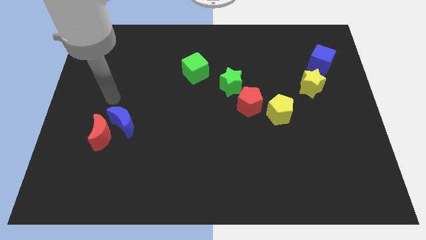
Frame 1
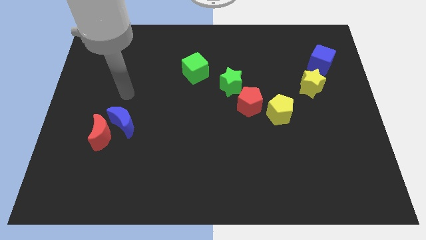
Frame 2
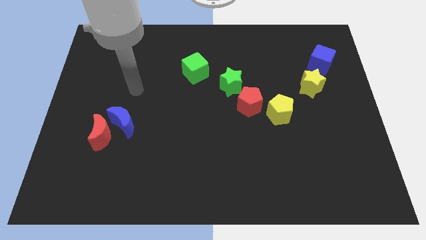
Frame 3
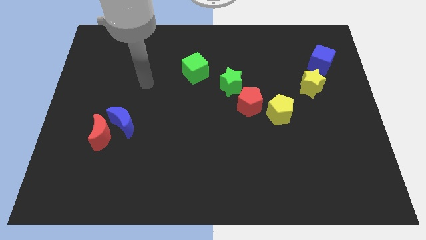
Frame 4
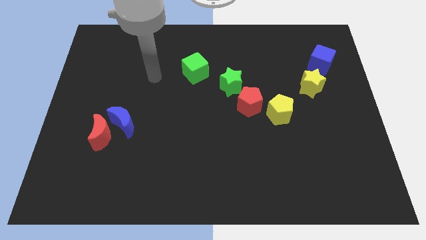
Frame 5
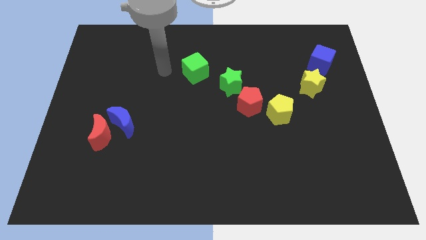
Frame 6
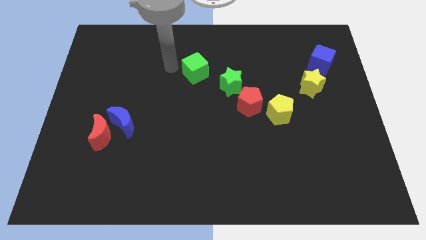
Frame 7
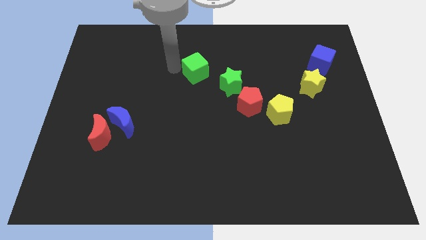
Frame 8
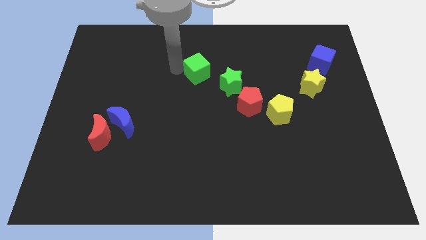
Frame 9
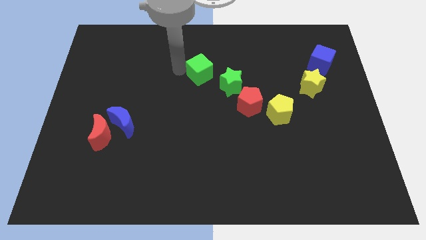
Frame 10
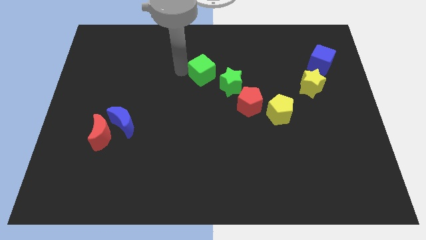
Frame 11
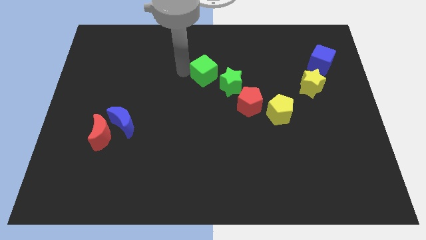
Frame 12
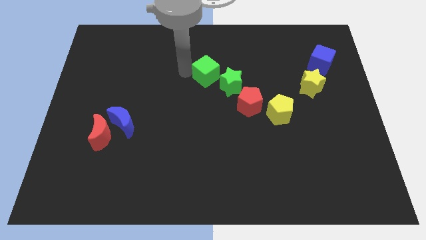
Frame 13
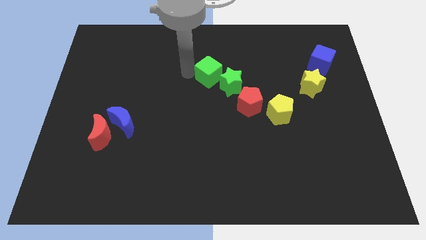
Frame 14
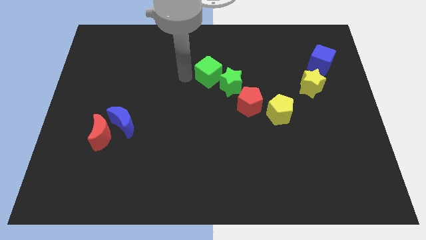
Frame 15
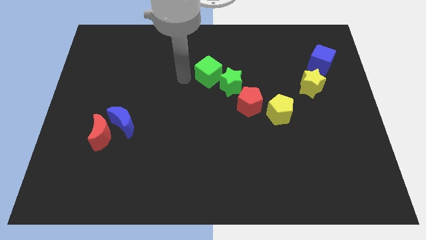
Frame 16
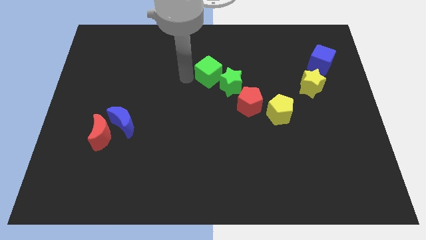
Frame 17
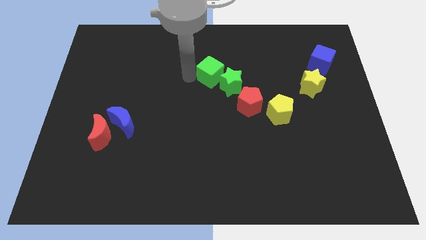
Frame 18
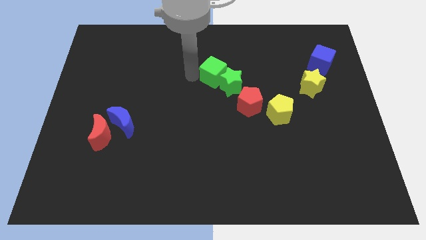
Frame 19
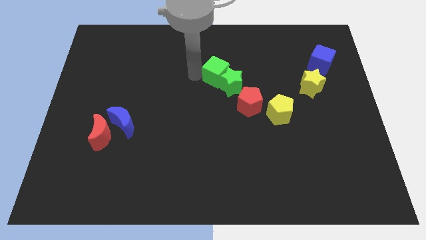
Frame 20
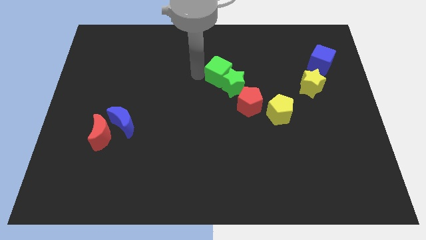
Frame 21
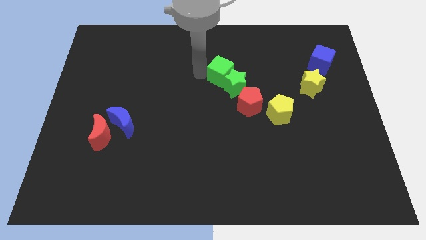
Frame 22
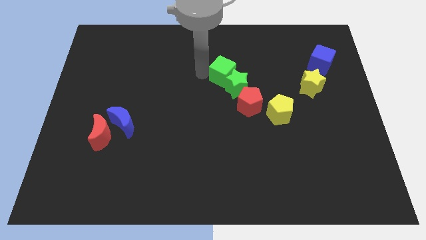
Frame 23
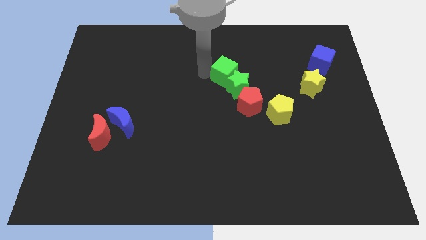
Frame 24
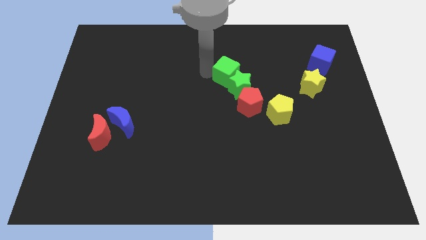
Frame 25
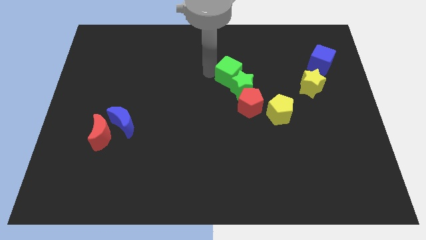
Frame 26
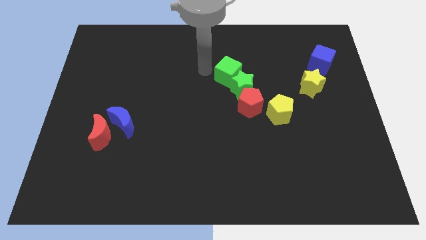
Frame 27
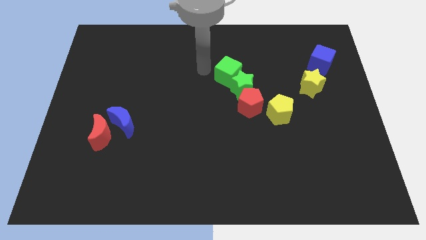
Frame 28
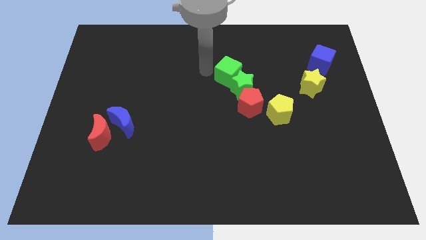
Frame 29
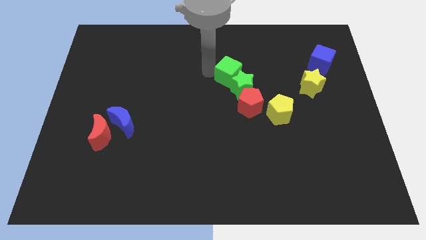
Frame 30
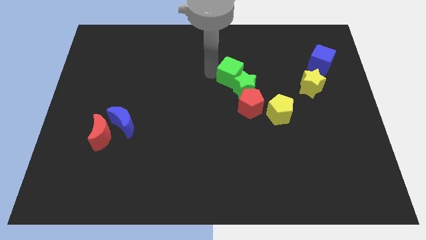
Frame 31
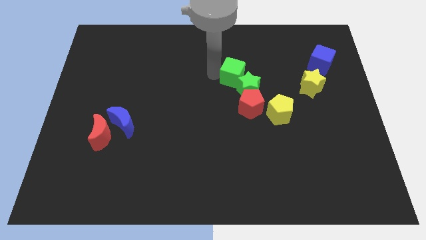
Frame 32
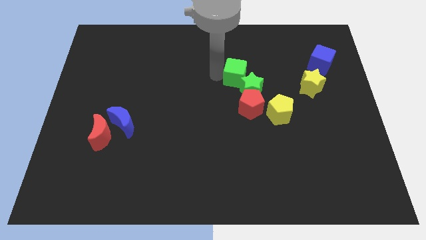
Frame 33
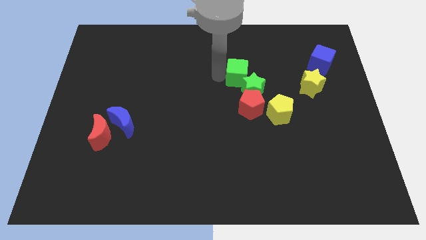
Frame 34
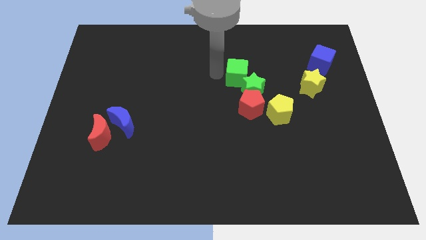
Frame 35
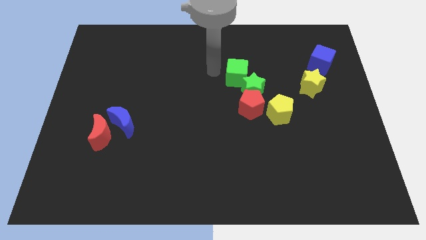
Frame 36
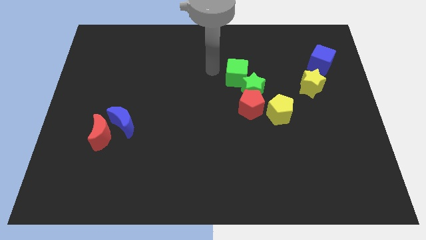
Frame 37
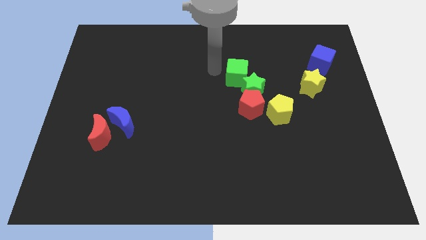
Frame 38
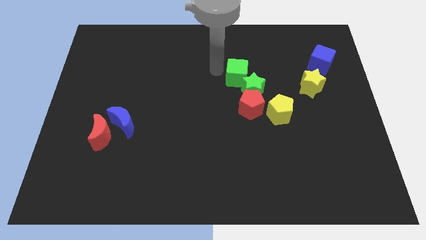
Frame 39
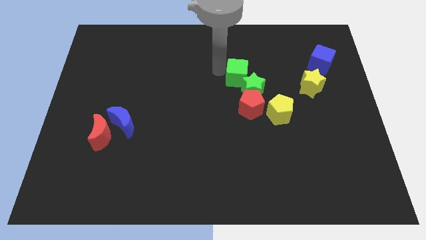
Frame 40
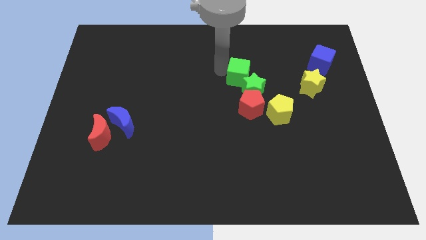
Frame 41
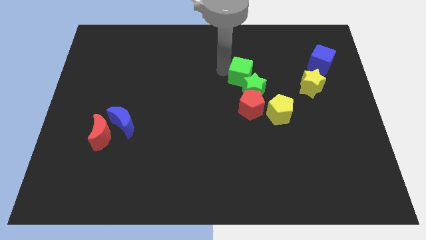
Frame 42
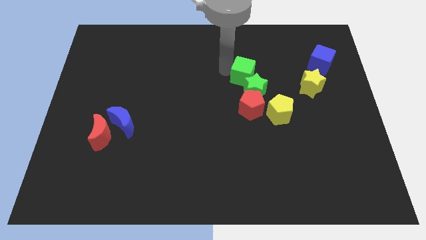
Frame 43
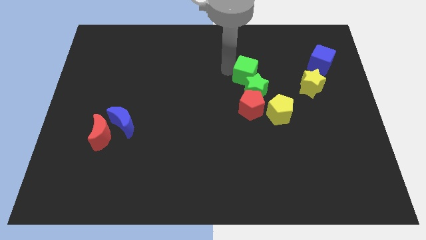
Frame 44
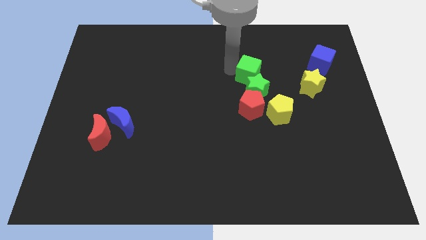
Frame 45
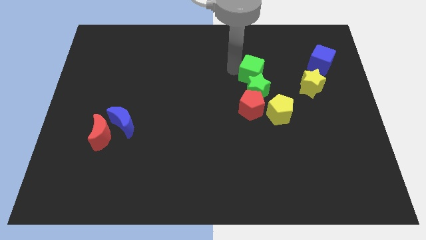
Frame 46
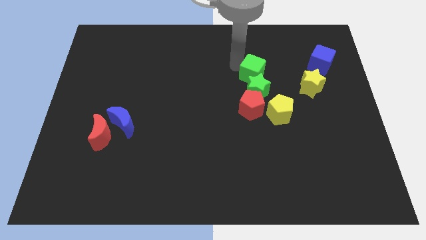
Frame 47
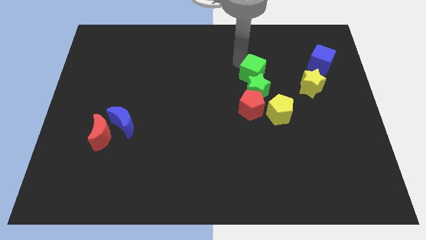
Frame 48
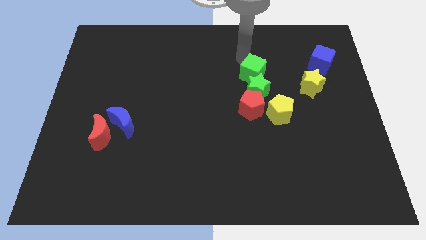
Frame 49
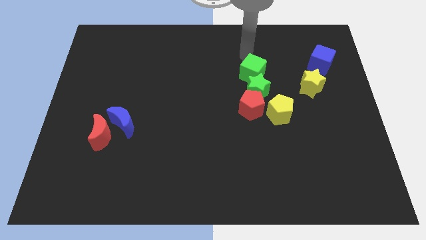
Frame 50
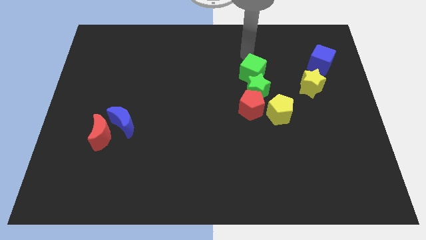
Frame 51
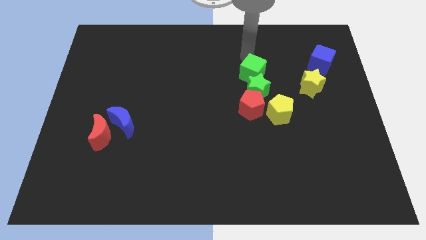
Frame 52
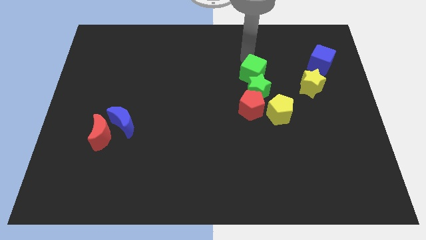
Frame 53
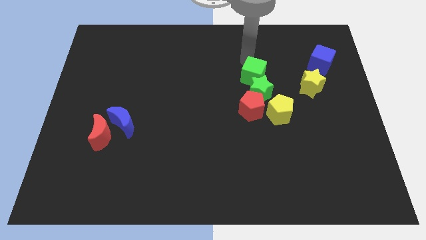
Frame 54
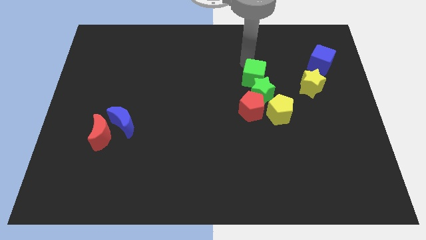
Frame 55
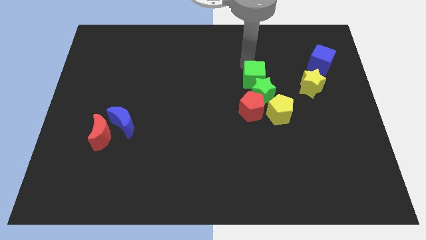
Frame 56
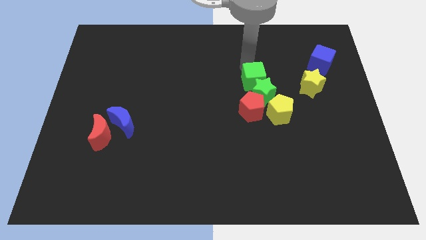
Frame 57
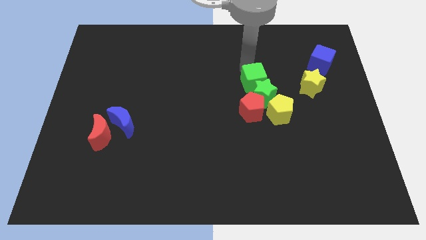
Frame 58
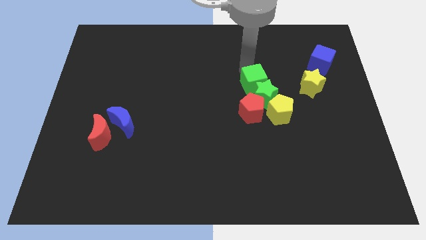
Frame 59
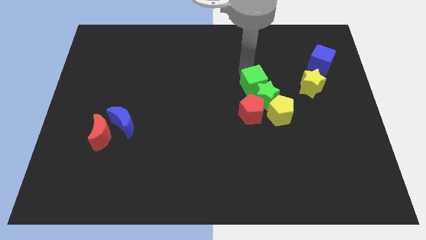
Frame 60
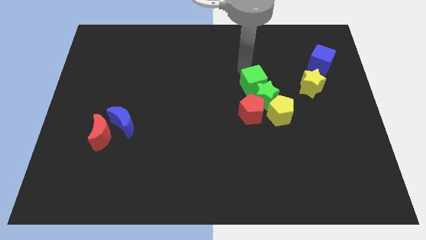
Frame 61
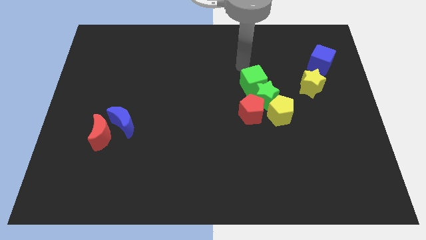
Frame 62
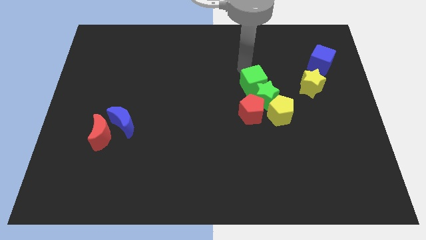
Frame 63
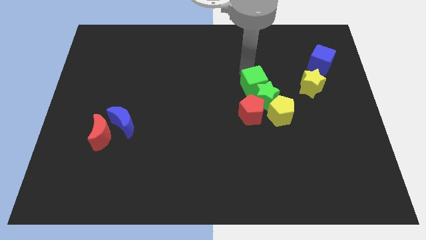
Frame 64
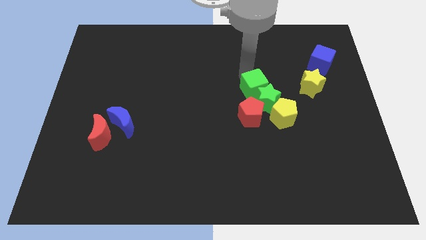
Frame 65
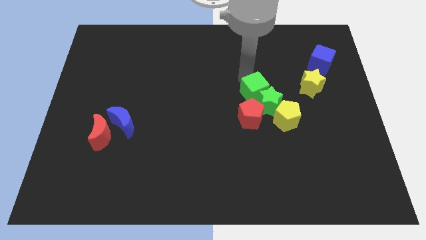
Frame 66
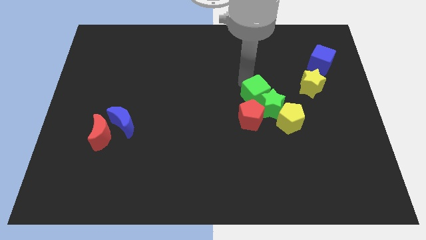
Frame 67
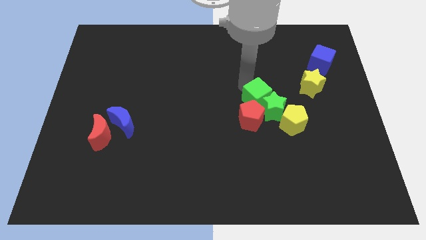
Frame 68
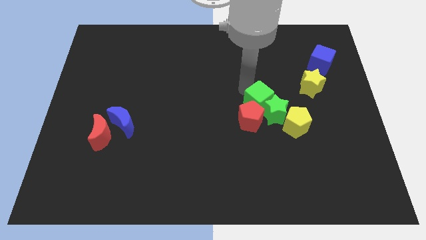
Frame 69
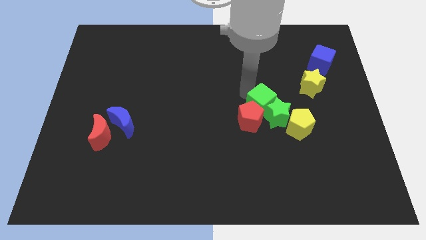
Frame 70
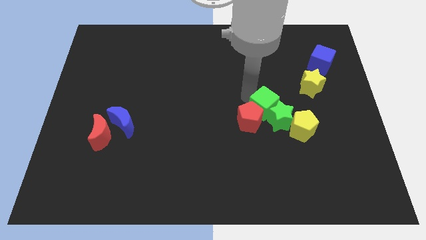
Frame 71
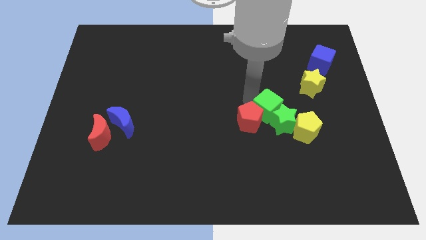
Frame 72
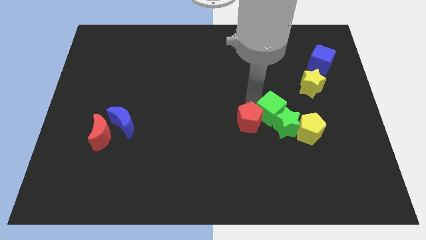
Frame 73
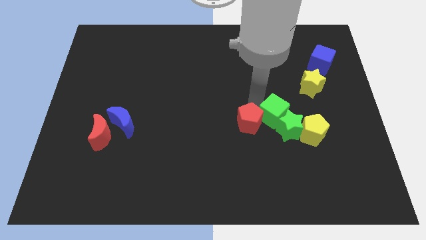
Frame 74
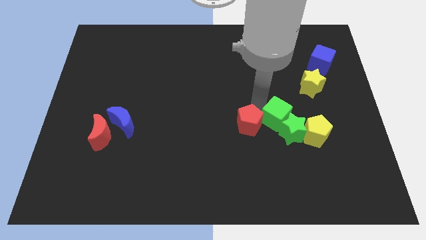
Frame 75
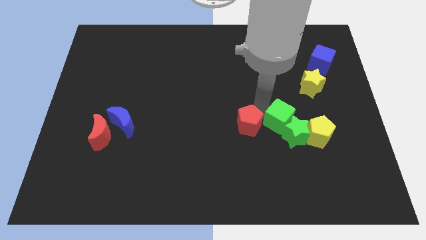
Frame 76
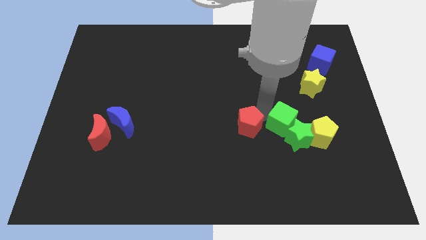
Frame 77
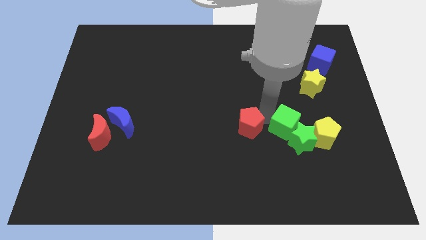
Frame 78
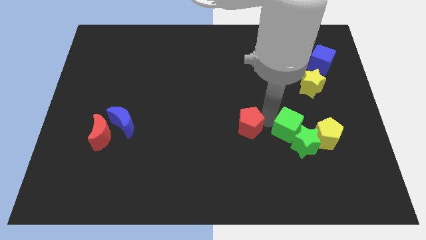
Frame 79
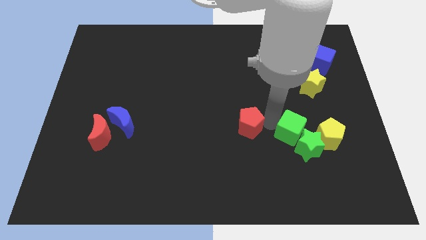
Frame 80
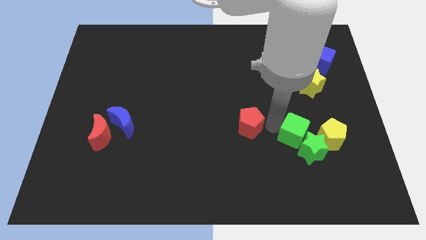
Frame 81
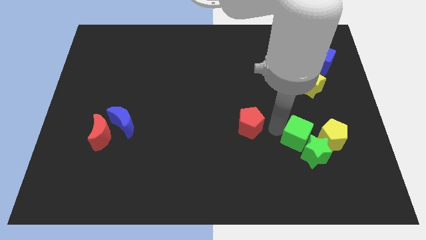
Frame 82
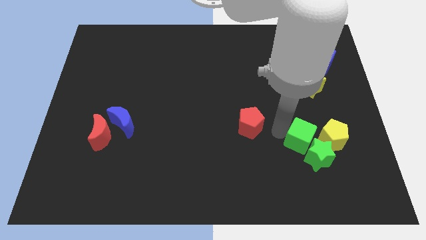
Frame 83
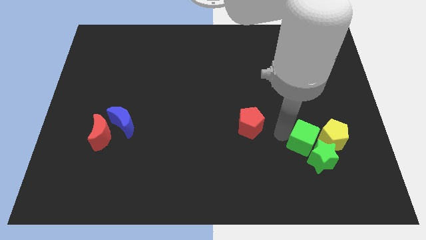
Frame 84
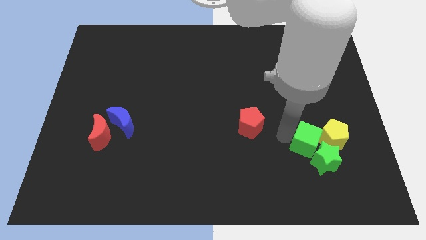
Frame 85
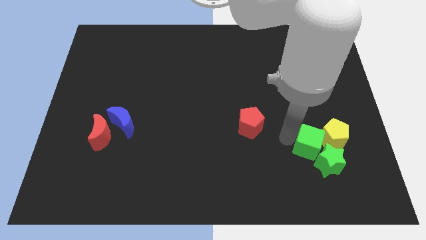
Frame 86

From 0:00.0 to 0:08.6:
slide the green cube close to the yellow pentagon
